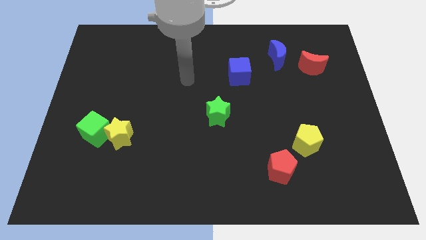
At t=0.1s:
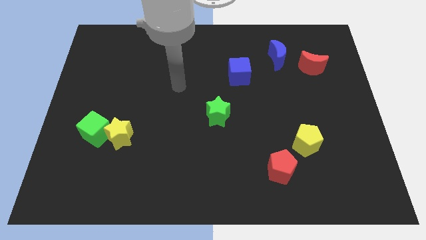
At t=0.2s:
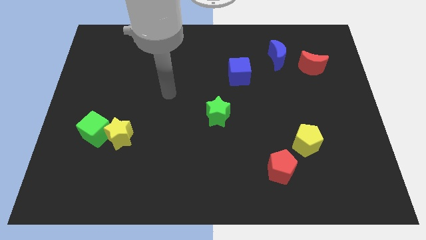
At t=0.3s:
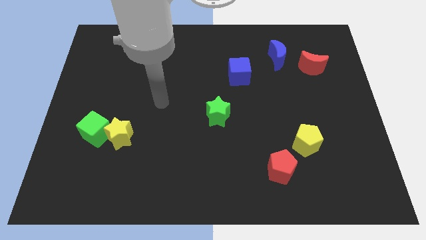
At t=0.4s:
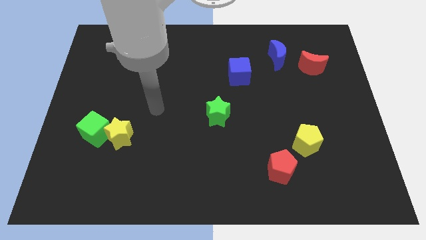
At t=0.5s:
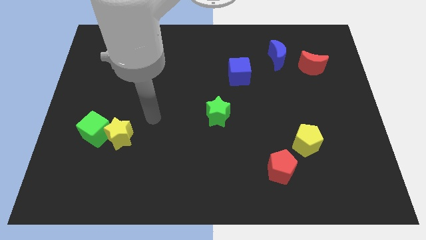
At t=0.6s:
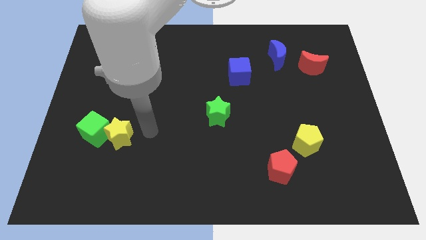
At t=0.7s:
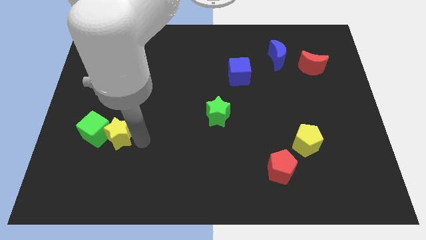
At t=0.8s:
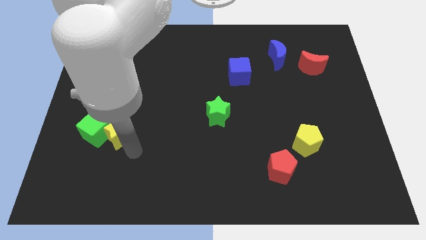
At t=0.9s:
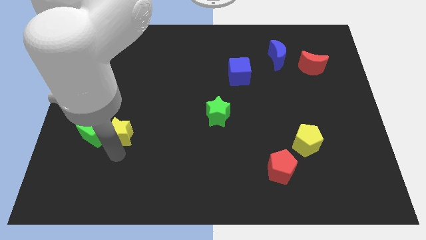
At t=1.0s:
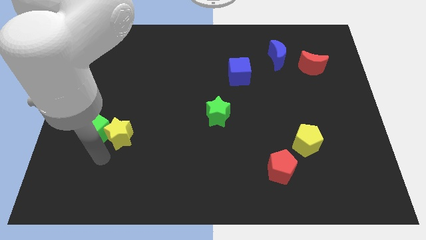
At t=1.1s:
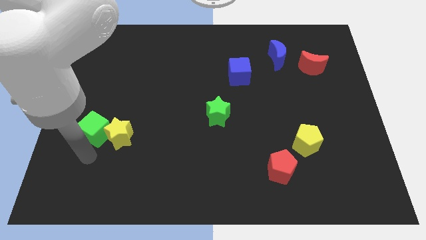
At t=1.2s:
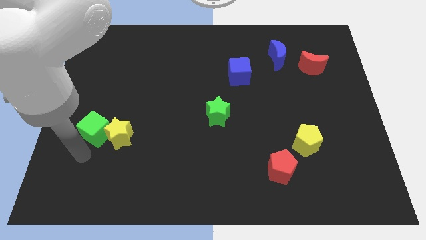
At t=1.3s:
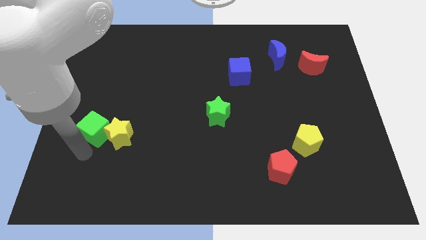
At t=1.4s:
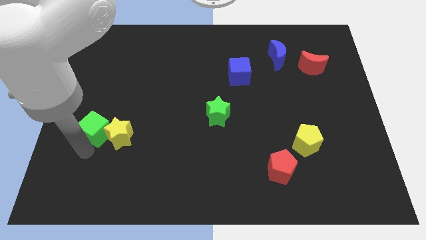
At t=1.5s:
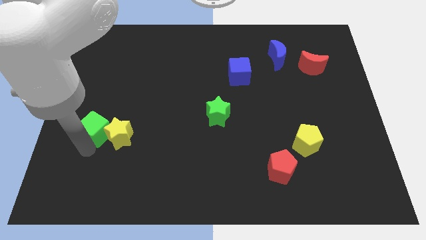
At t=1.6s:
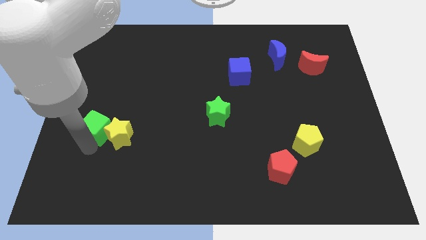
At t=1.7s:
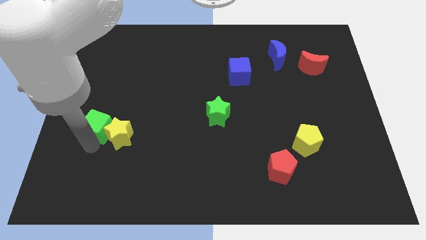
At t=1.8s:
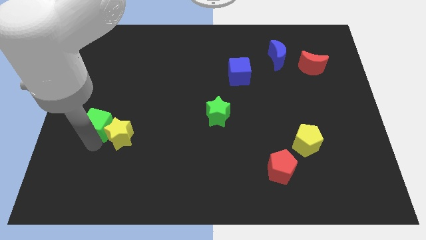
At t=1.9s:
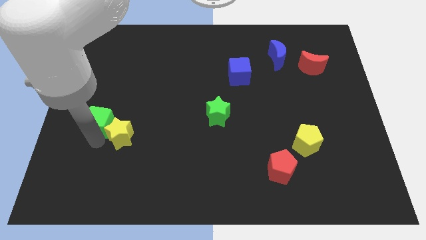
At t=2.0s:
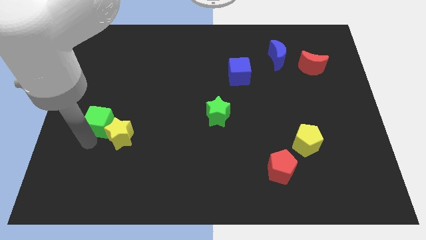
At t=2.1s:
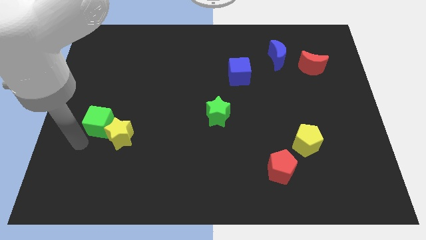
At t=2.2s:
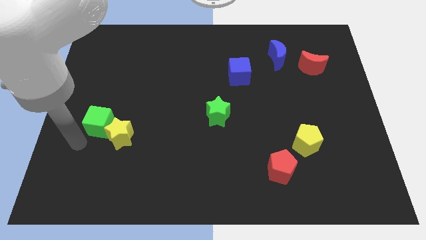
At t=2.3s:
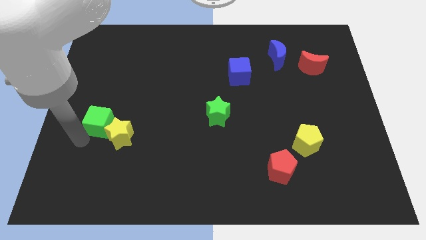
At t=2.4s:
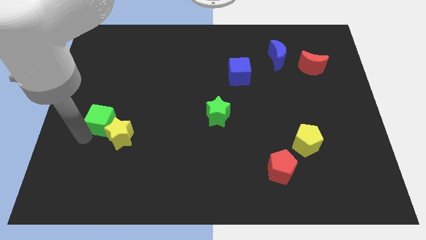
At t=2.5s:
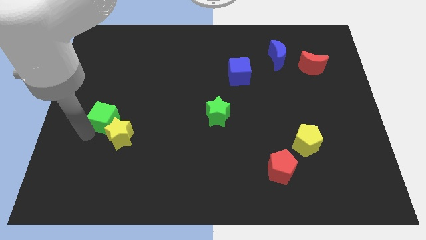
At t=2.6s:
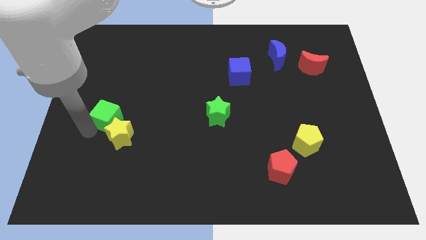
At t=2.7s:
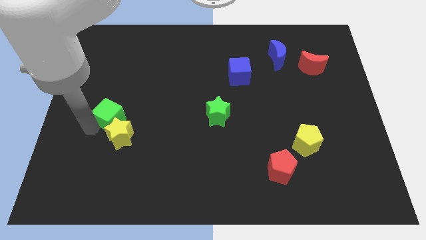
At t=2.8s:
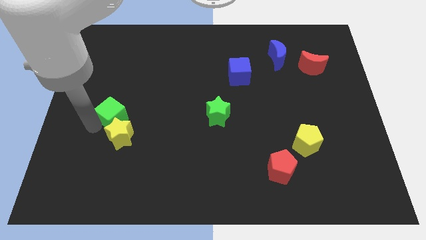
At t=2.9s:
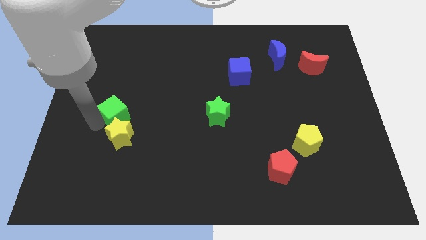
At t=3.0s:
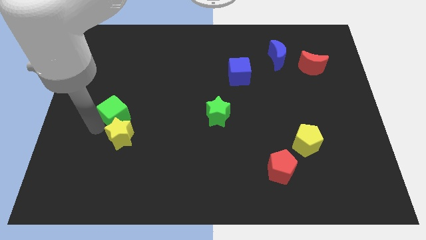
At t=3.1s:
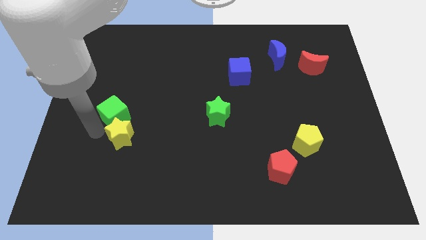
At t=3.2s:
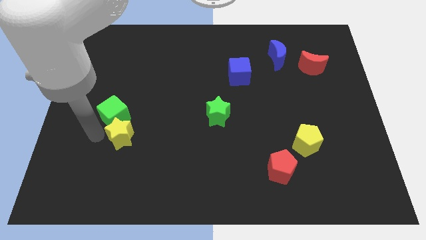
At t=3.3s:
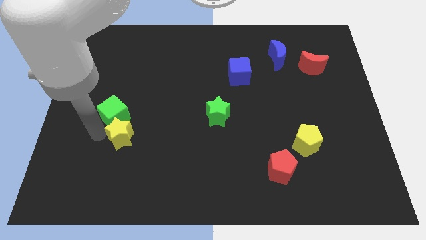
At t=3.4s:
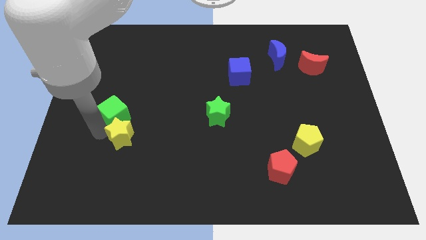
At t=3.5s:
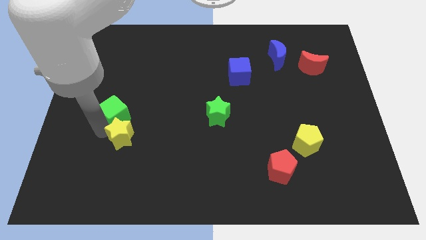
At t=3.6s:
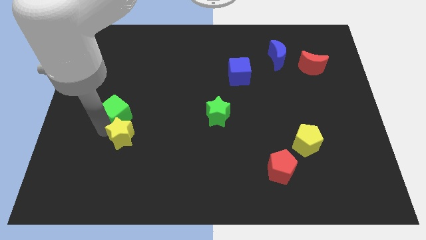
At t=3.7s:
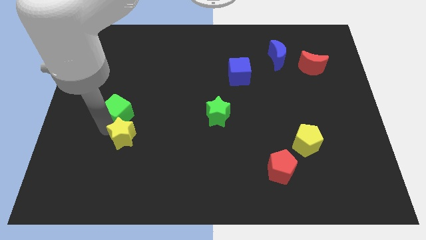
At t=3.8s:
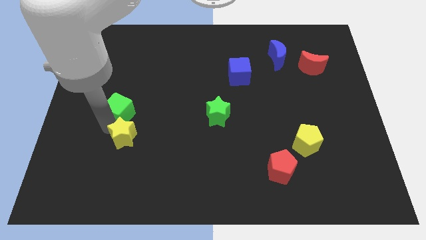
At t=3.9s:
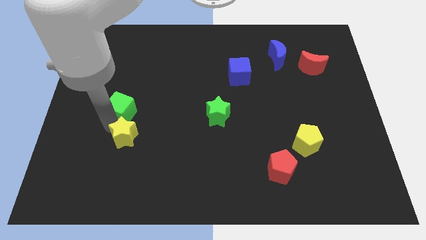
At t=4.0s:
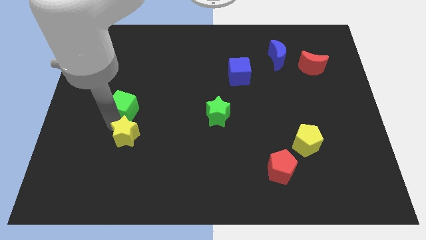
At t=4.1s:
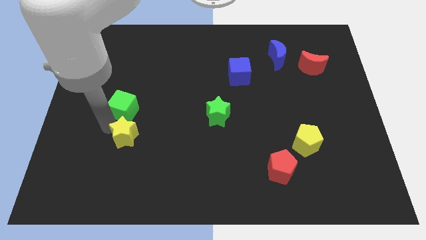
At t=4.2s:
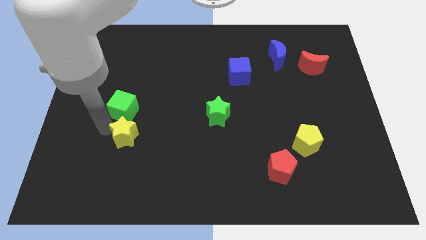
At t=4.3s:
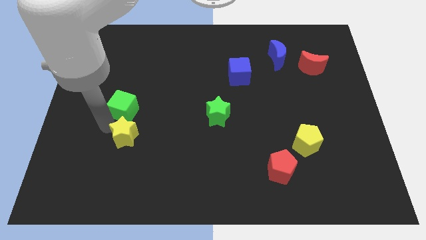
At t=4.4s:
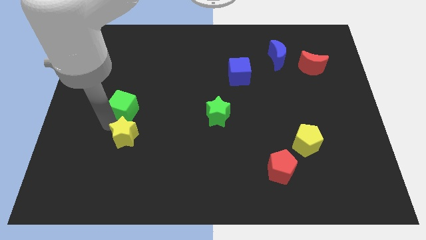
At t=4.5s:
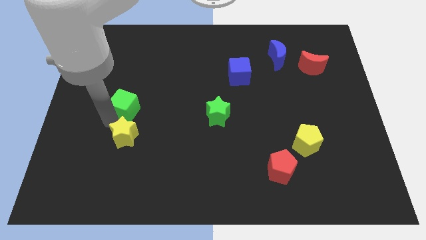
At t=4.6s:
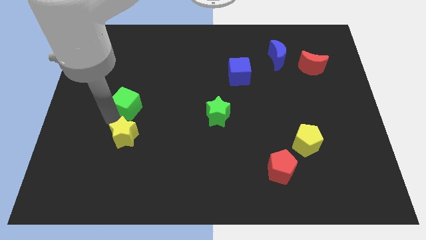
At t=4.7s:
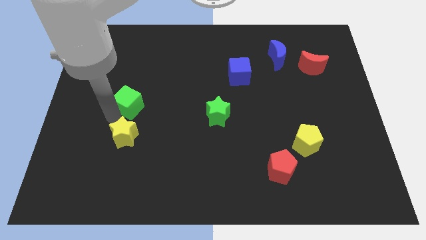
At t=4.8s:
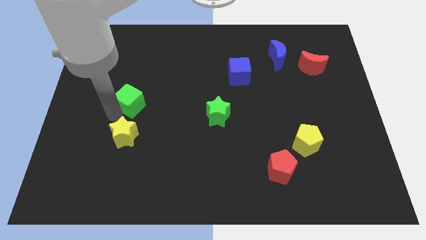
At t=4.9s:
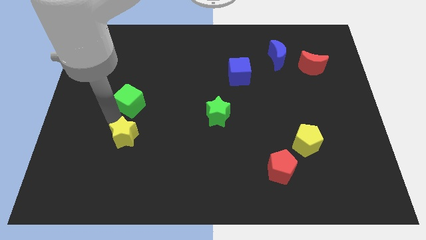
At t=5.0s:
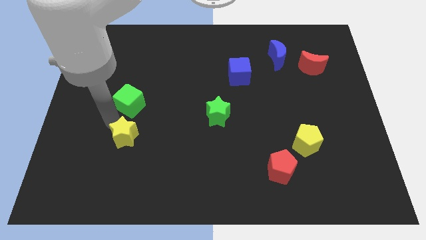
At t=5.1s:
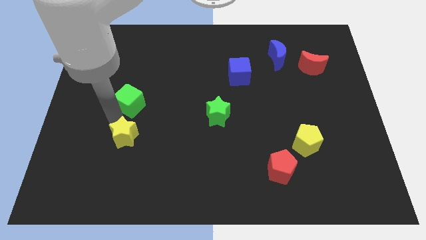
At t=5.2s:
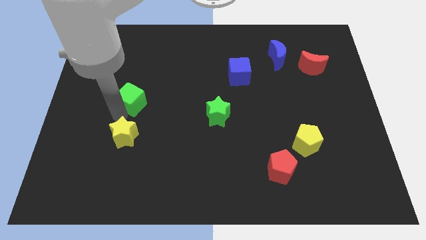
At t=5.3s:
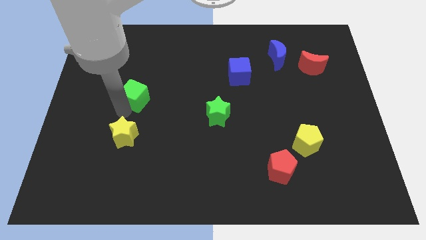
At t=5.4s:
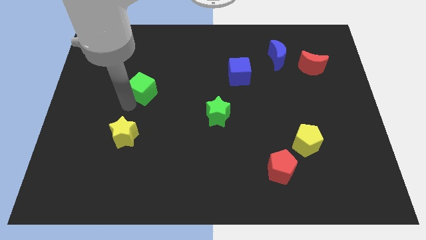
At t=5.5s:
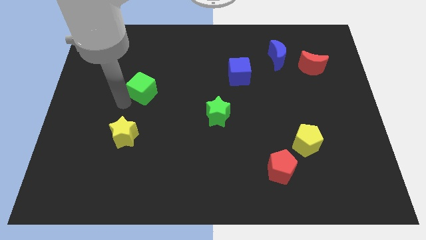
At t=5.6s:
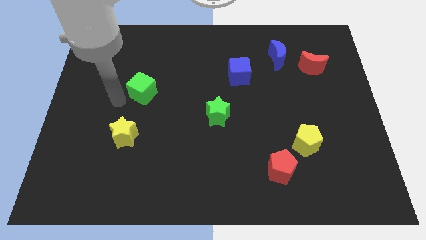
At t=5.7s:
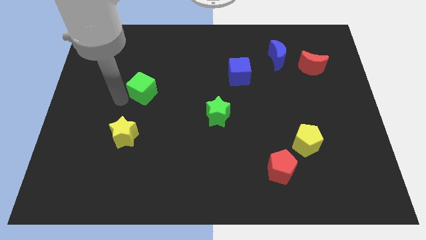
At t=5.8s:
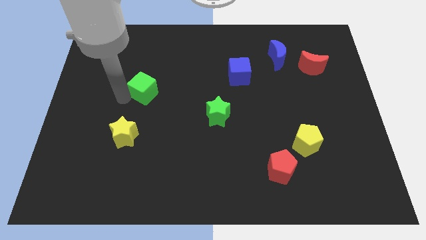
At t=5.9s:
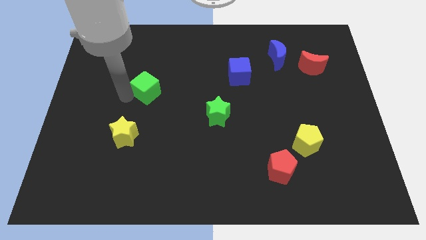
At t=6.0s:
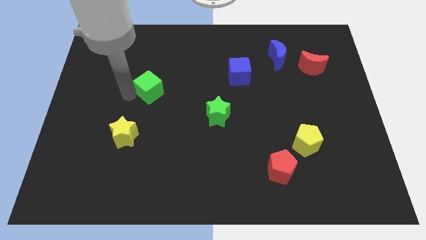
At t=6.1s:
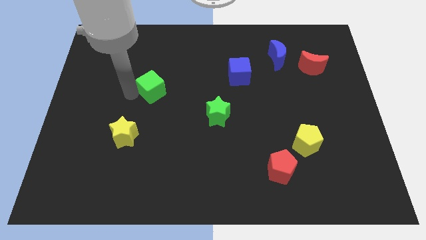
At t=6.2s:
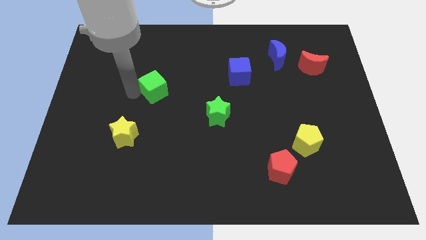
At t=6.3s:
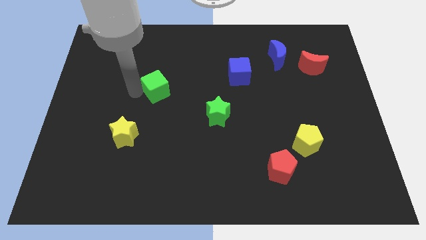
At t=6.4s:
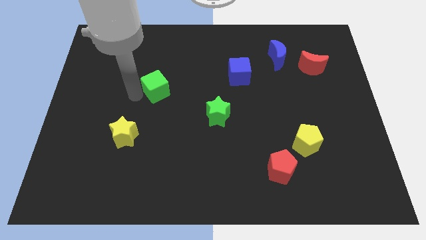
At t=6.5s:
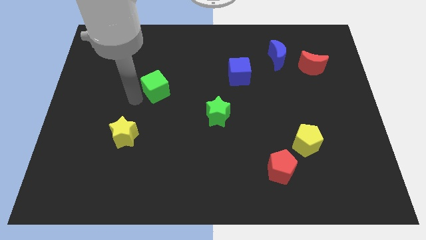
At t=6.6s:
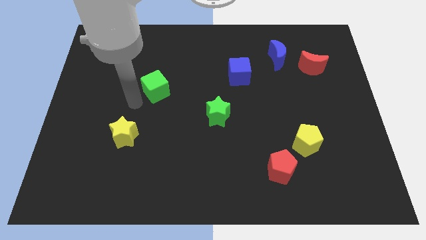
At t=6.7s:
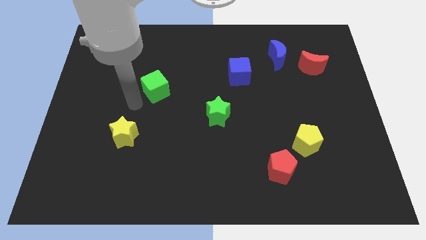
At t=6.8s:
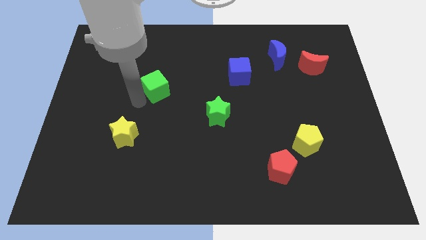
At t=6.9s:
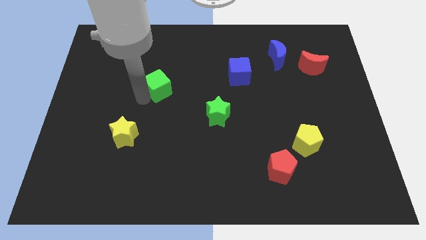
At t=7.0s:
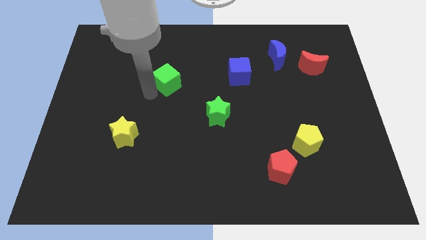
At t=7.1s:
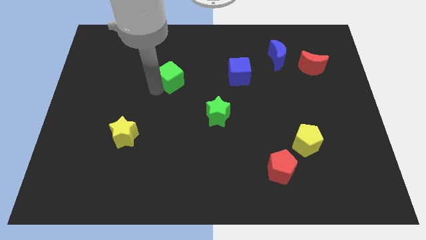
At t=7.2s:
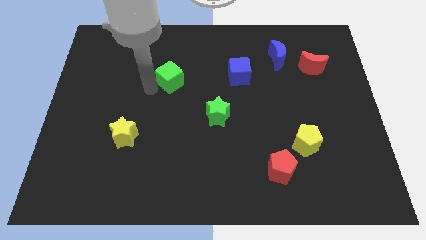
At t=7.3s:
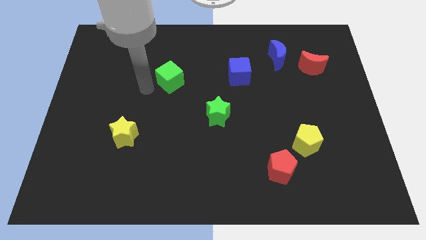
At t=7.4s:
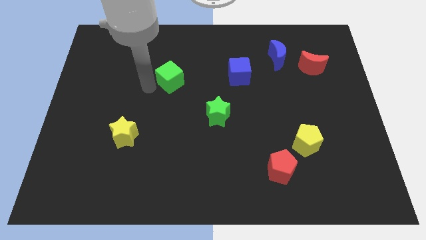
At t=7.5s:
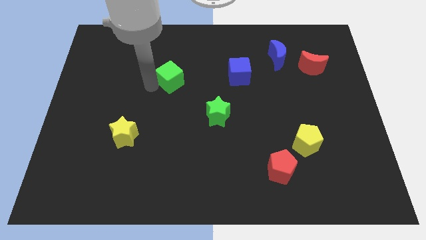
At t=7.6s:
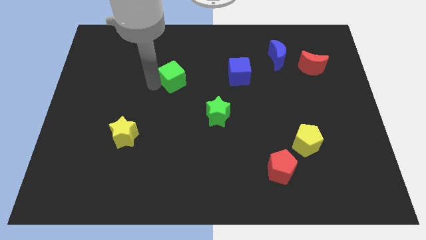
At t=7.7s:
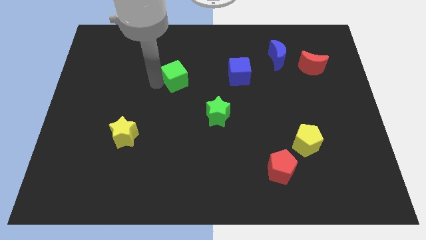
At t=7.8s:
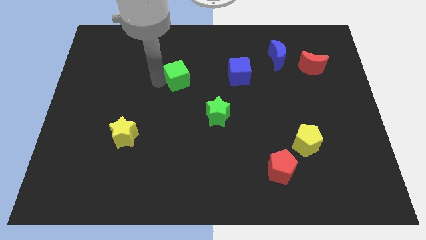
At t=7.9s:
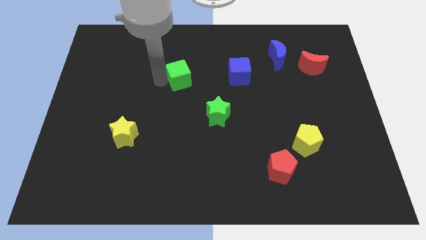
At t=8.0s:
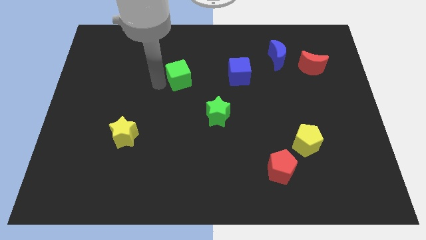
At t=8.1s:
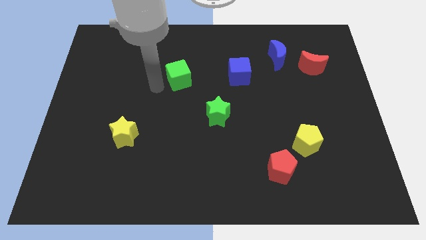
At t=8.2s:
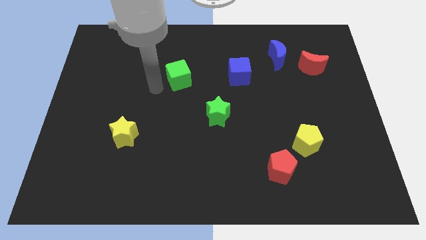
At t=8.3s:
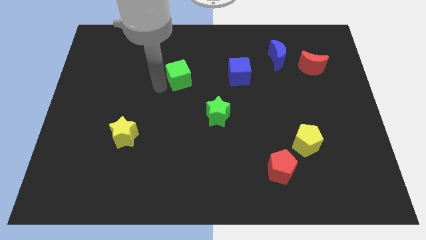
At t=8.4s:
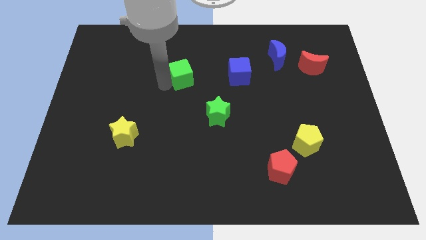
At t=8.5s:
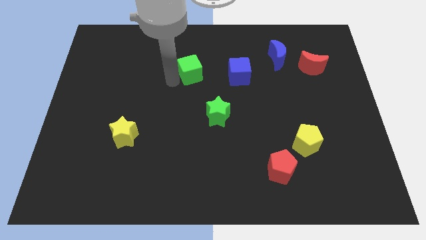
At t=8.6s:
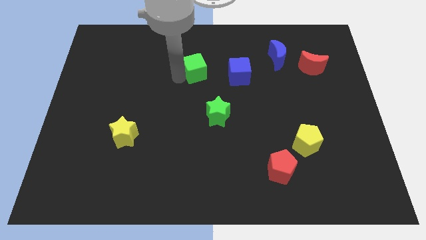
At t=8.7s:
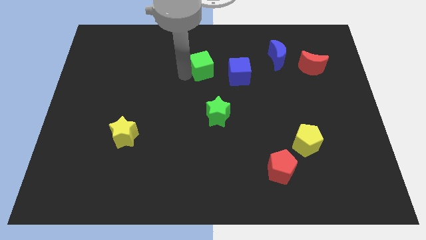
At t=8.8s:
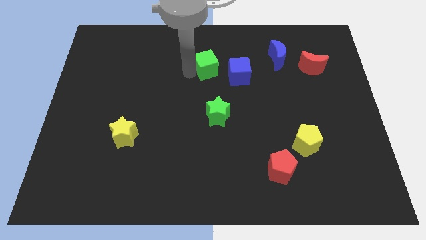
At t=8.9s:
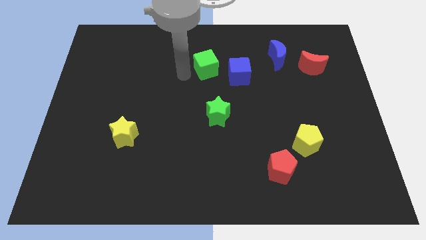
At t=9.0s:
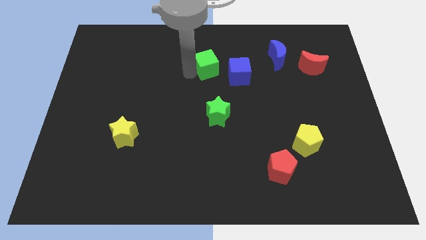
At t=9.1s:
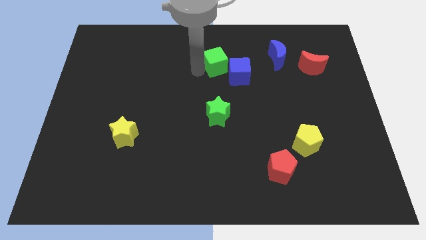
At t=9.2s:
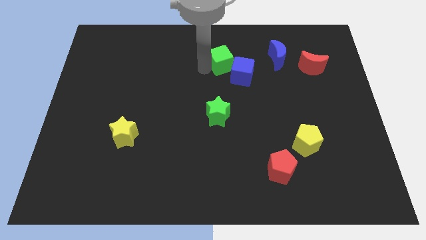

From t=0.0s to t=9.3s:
move the green cube just left of the blue moon
